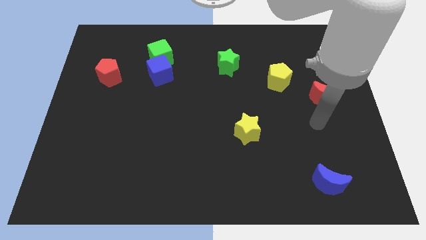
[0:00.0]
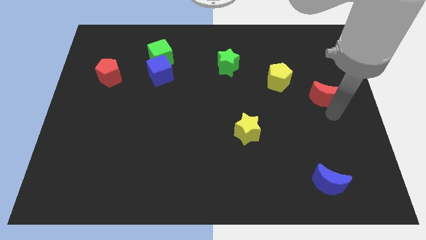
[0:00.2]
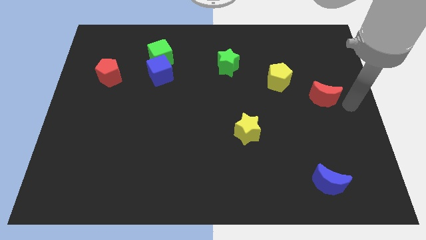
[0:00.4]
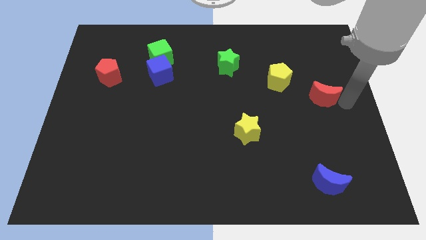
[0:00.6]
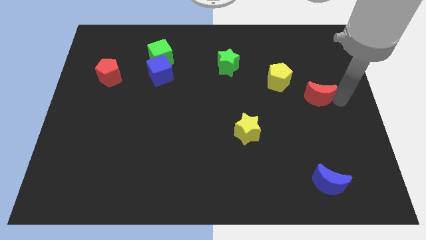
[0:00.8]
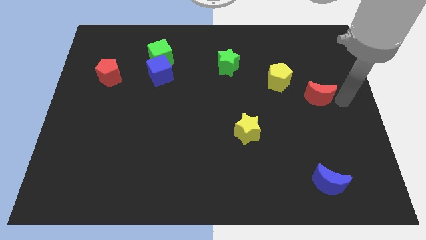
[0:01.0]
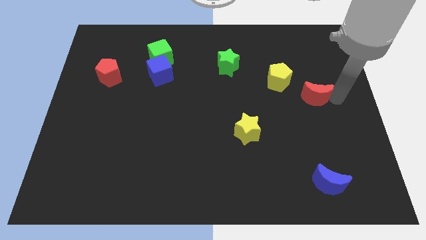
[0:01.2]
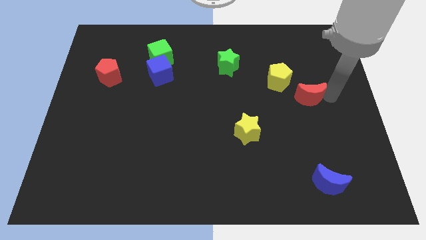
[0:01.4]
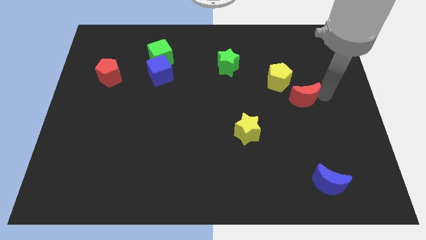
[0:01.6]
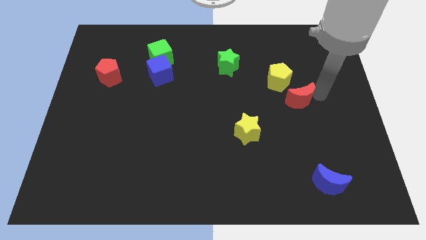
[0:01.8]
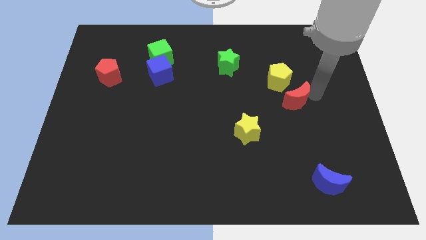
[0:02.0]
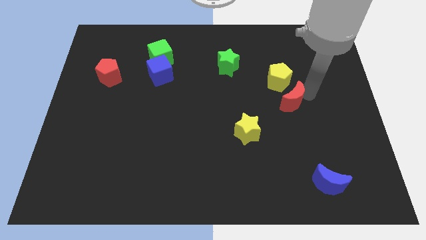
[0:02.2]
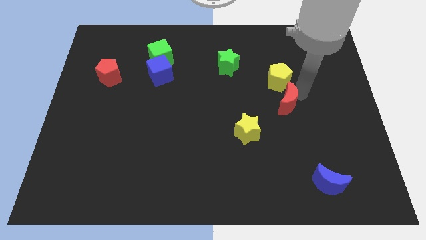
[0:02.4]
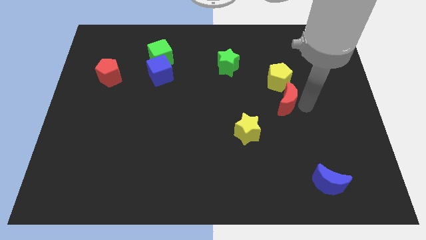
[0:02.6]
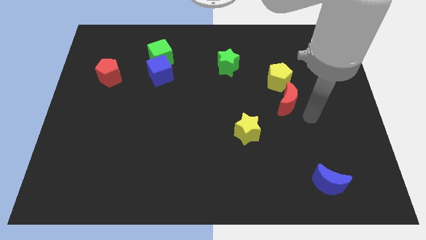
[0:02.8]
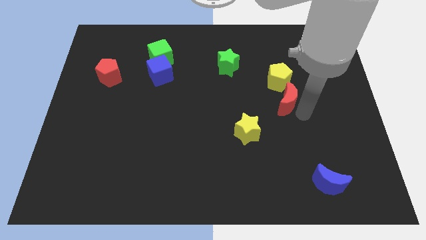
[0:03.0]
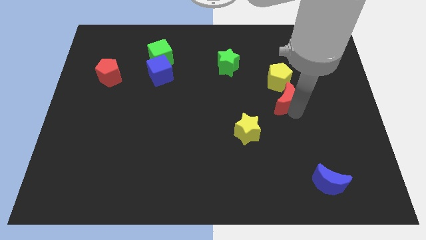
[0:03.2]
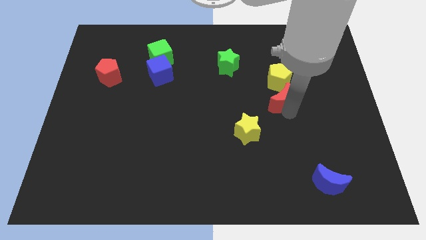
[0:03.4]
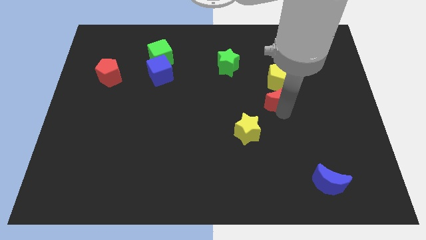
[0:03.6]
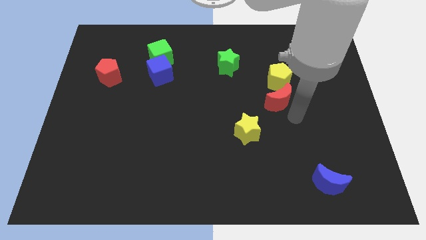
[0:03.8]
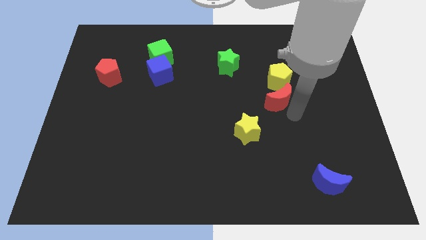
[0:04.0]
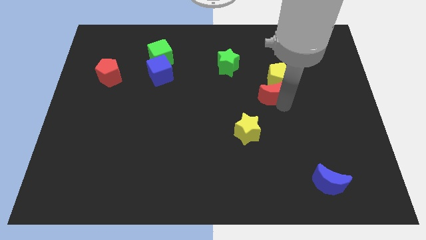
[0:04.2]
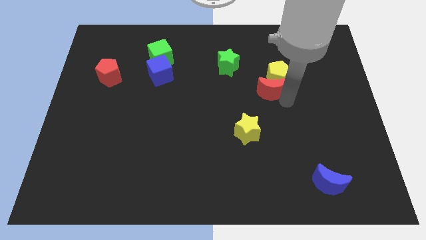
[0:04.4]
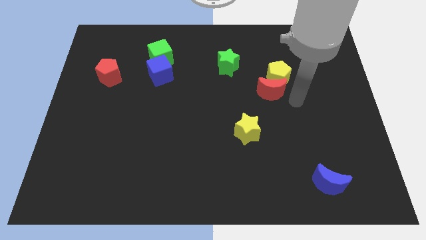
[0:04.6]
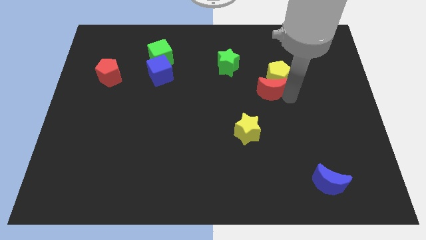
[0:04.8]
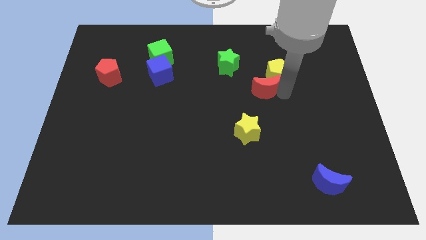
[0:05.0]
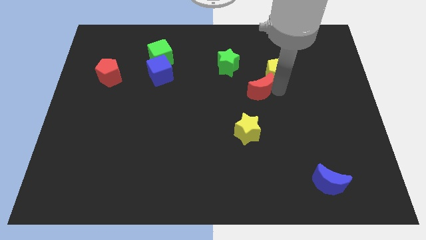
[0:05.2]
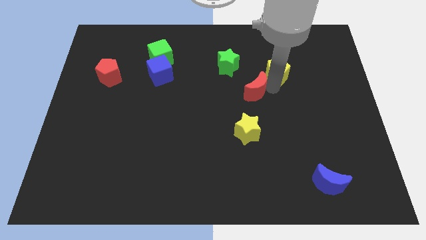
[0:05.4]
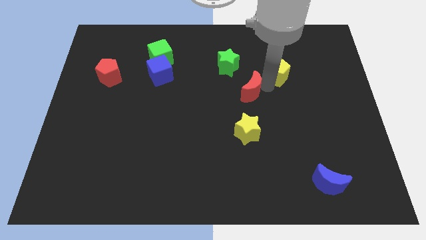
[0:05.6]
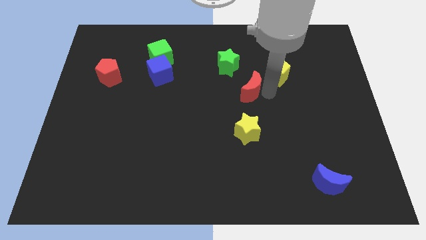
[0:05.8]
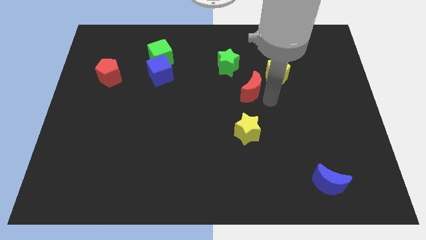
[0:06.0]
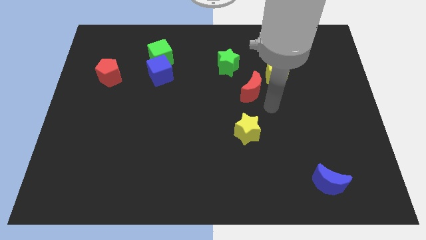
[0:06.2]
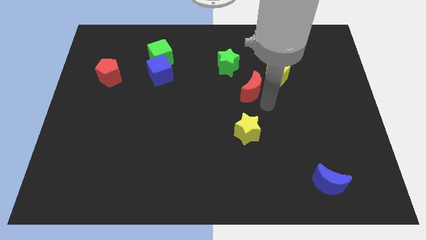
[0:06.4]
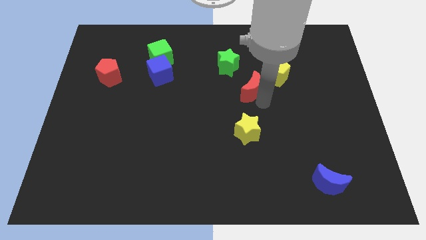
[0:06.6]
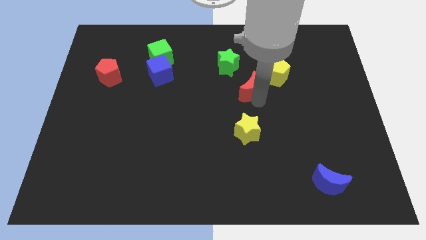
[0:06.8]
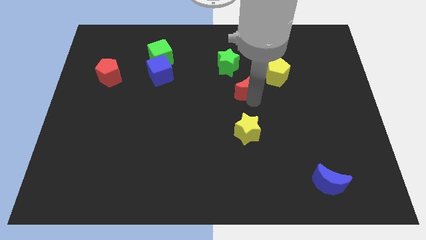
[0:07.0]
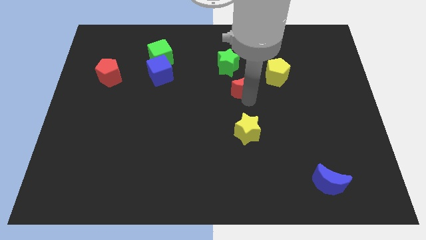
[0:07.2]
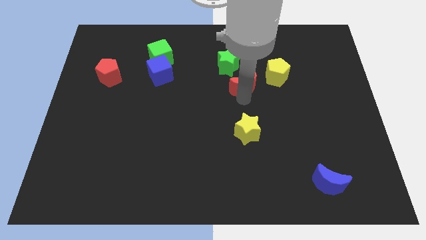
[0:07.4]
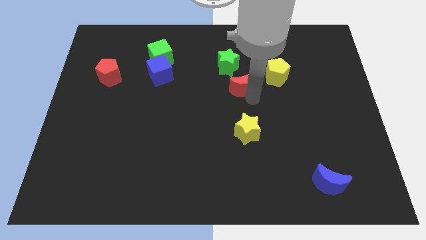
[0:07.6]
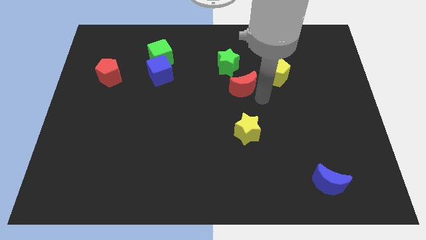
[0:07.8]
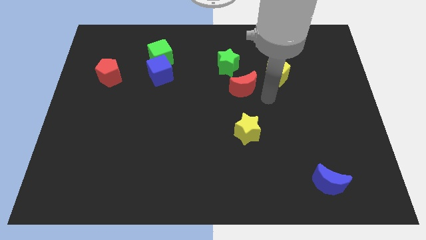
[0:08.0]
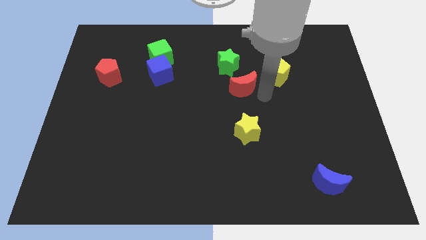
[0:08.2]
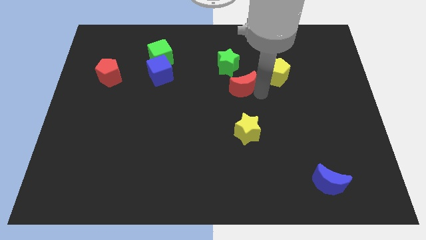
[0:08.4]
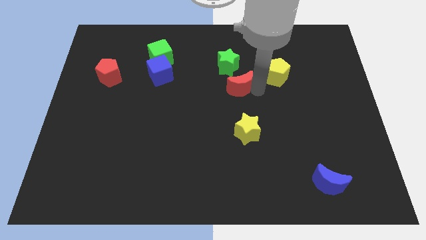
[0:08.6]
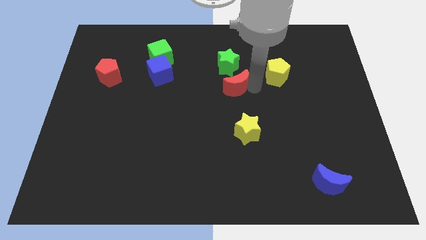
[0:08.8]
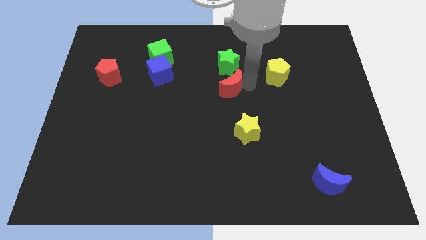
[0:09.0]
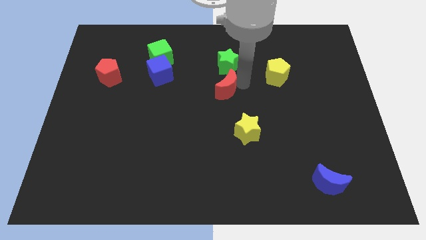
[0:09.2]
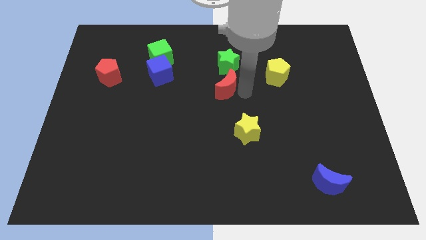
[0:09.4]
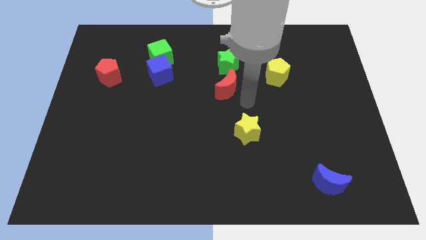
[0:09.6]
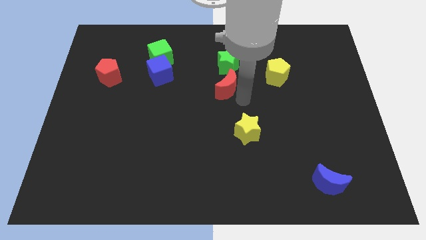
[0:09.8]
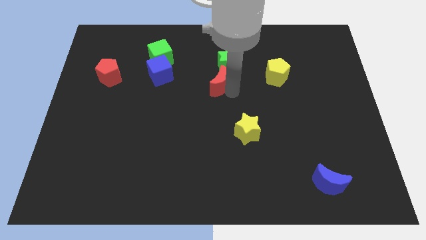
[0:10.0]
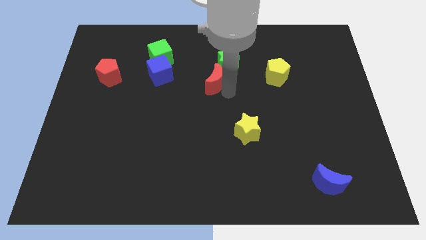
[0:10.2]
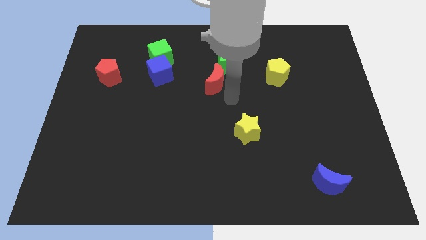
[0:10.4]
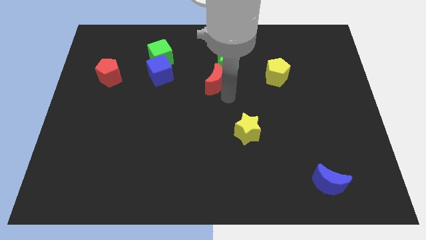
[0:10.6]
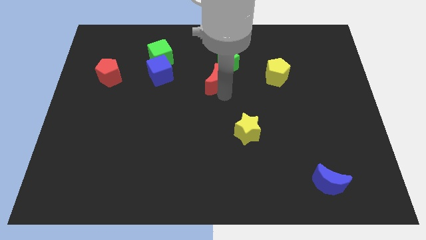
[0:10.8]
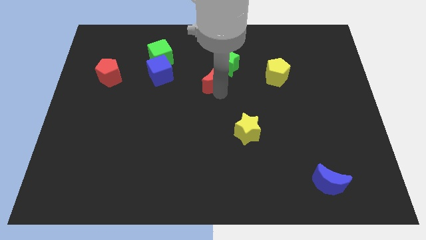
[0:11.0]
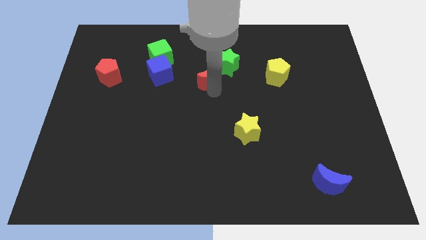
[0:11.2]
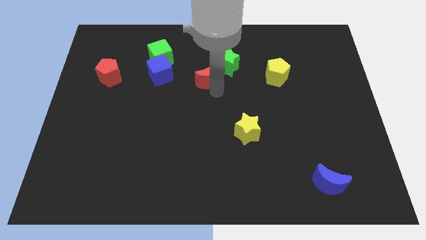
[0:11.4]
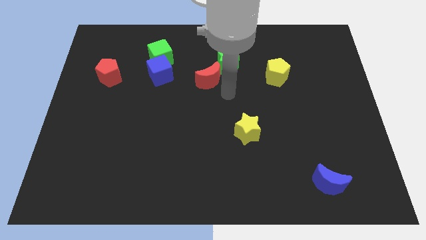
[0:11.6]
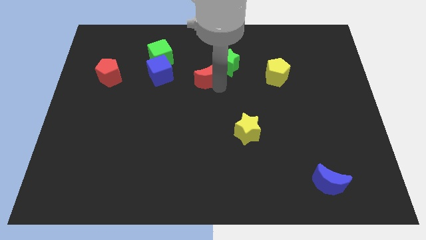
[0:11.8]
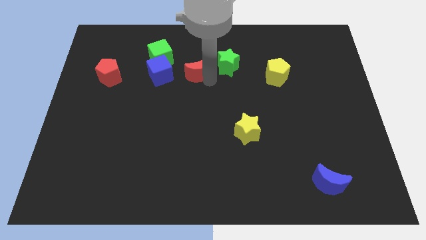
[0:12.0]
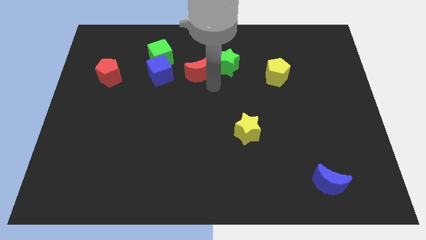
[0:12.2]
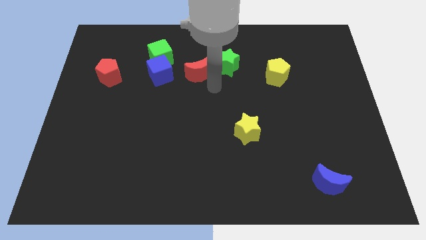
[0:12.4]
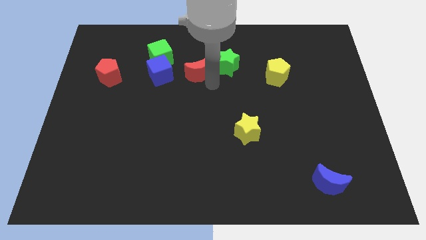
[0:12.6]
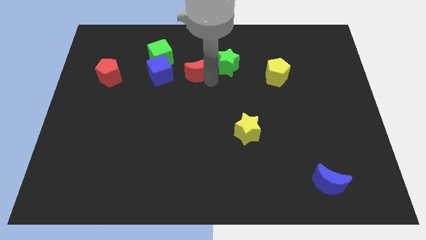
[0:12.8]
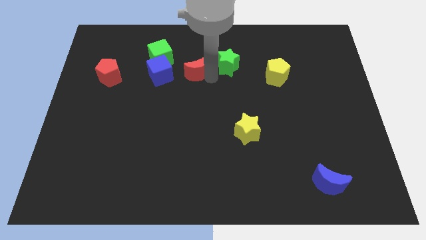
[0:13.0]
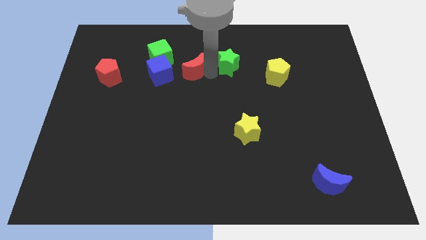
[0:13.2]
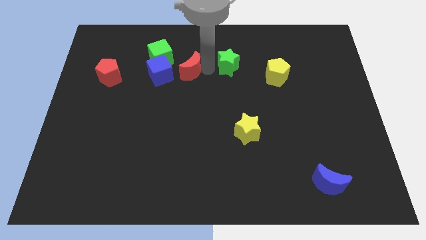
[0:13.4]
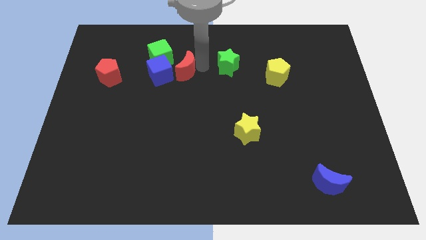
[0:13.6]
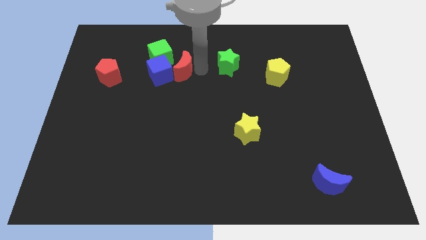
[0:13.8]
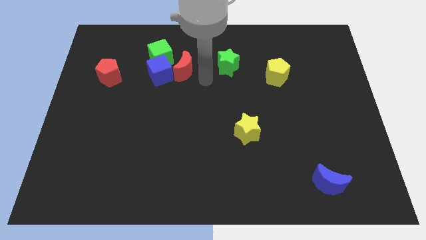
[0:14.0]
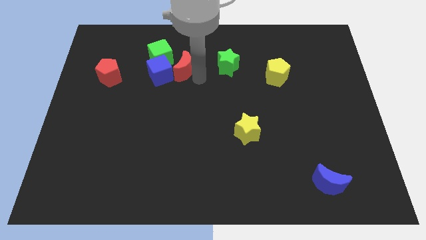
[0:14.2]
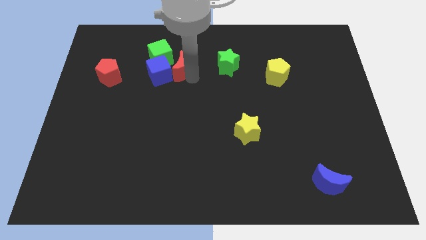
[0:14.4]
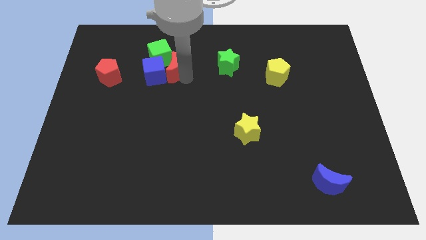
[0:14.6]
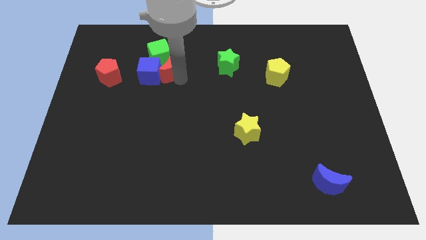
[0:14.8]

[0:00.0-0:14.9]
put the red moon to the green cube
